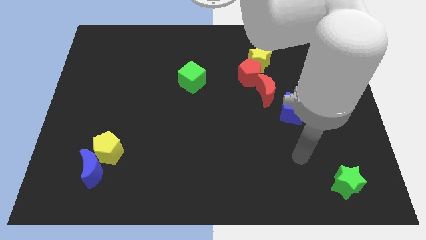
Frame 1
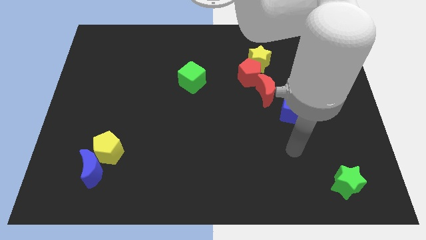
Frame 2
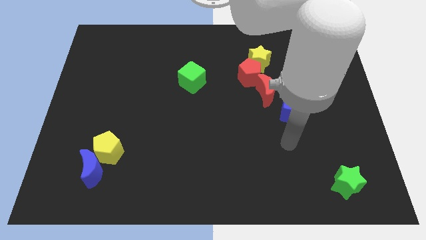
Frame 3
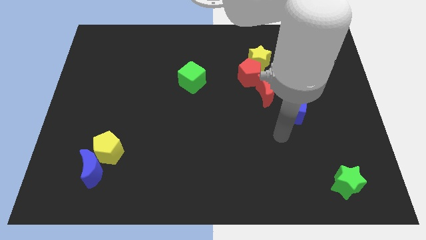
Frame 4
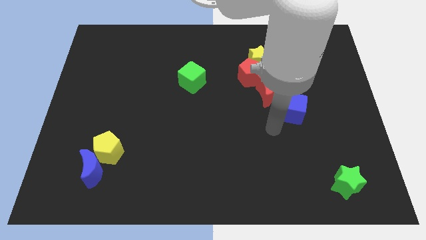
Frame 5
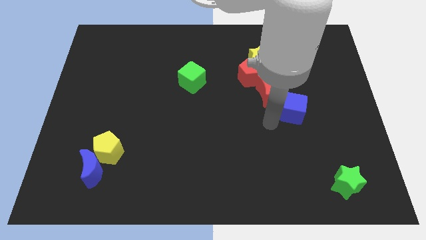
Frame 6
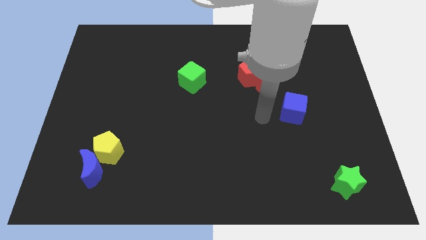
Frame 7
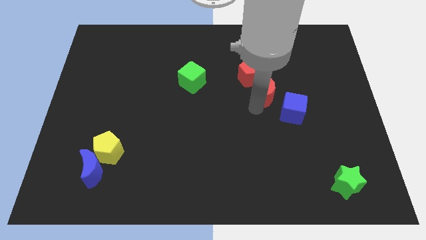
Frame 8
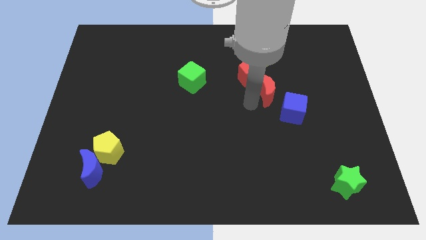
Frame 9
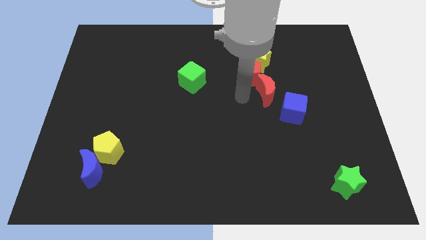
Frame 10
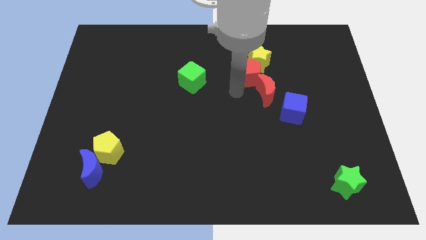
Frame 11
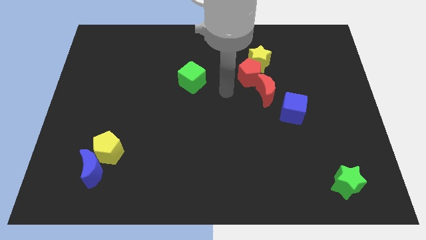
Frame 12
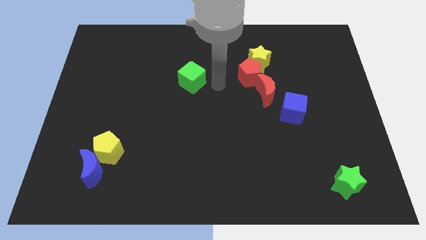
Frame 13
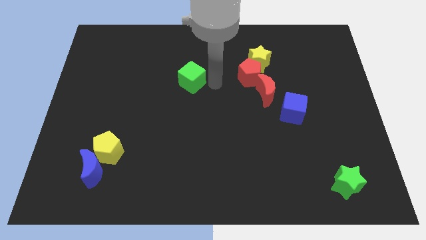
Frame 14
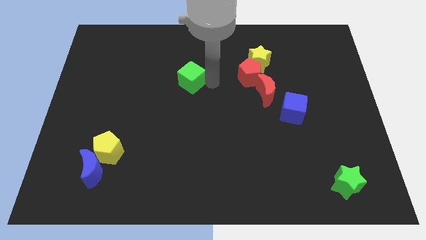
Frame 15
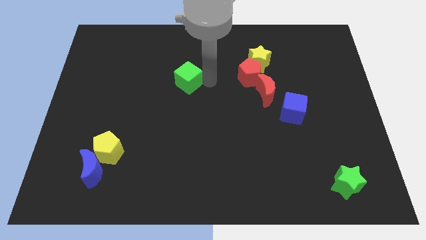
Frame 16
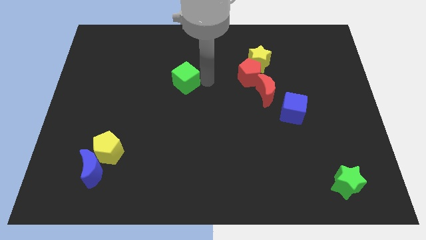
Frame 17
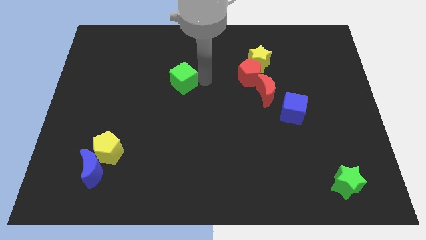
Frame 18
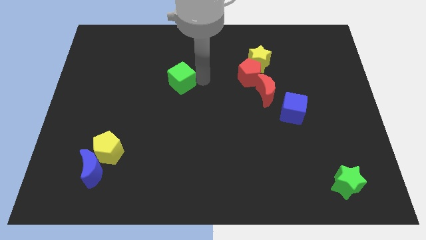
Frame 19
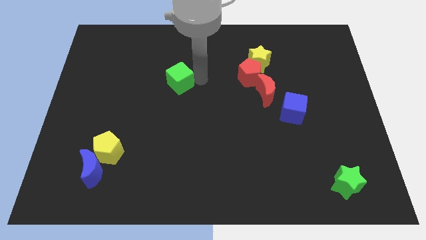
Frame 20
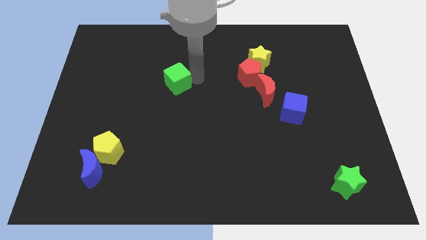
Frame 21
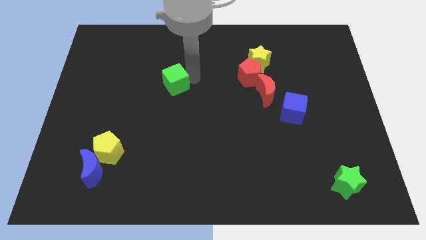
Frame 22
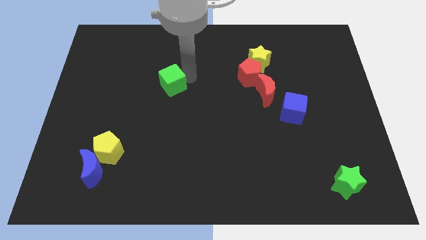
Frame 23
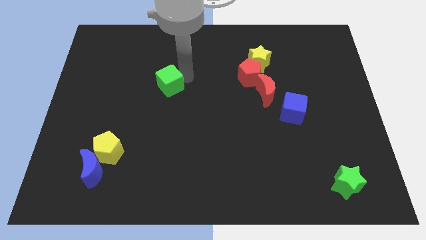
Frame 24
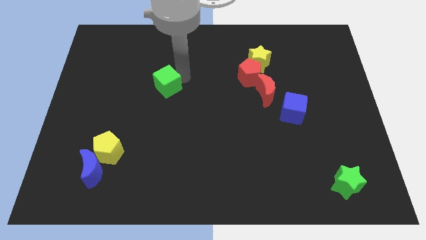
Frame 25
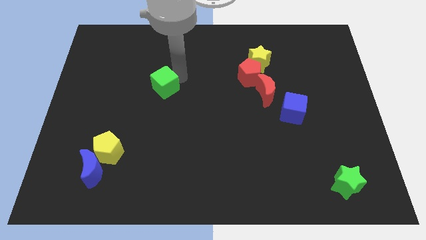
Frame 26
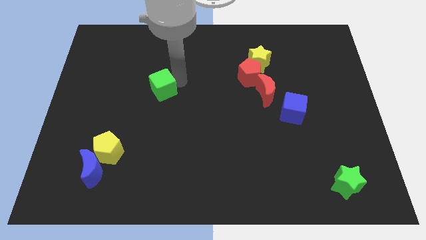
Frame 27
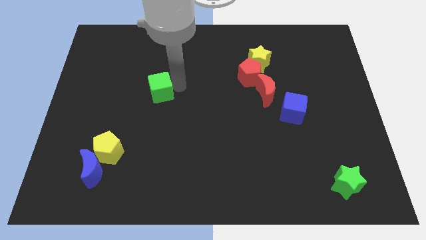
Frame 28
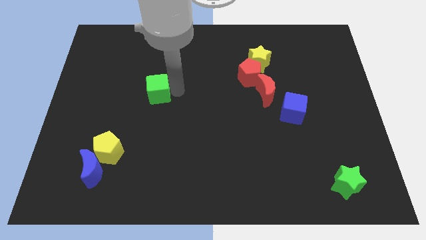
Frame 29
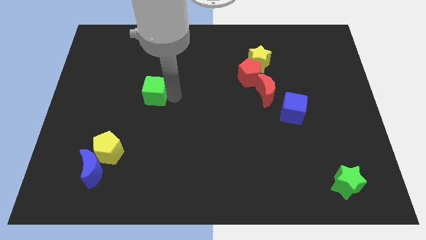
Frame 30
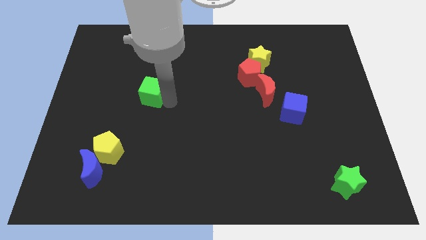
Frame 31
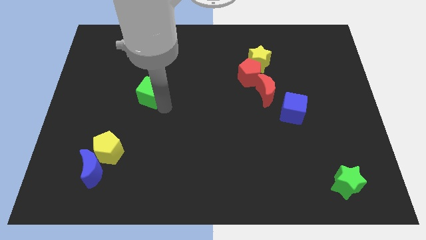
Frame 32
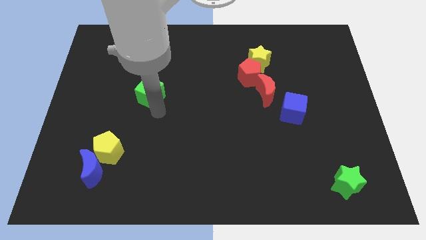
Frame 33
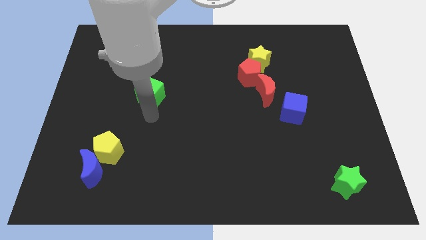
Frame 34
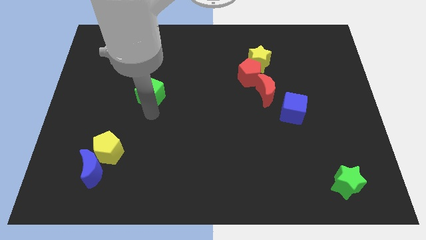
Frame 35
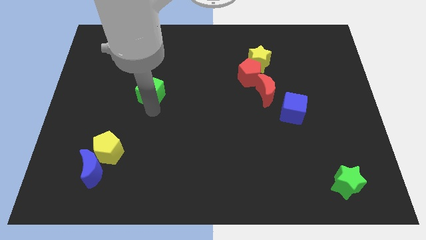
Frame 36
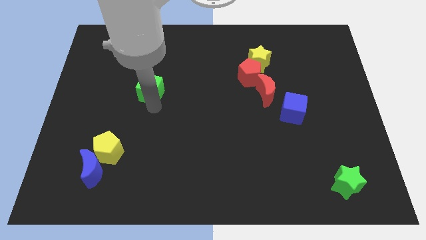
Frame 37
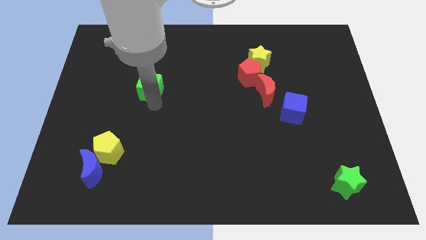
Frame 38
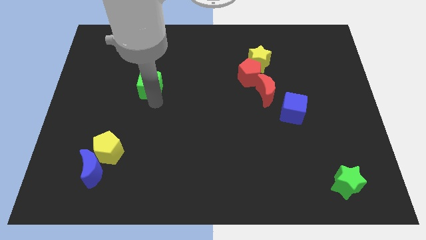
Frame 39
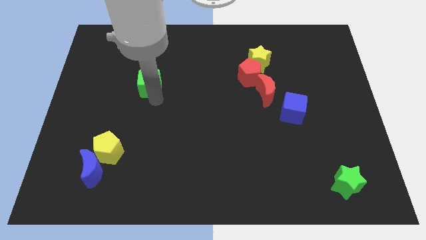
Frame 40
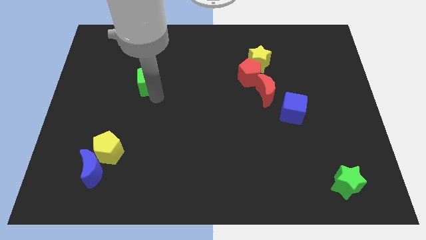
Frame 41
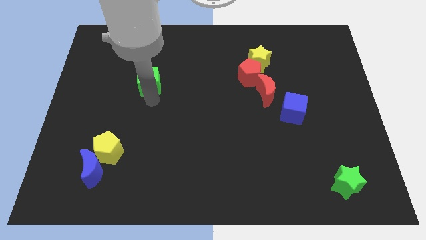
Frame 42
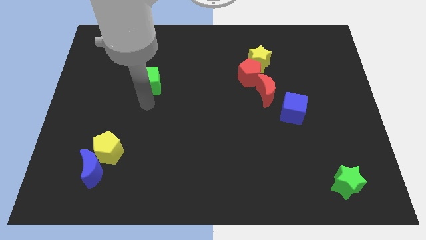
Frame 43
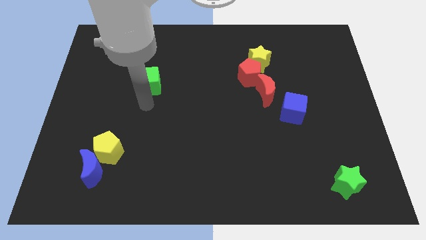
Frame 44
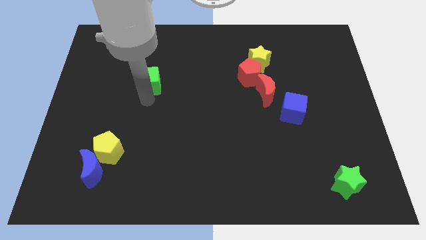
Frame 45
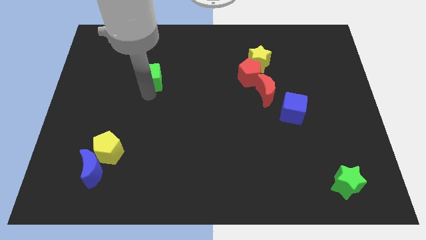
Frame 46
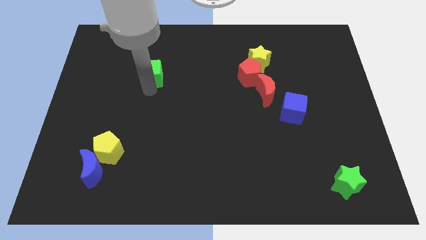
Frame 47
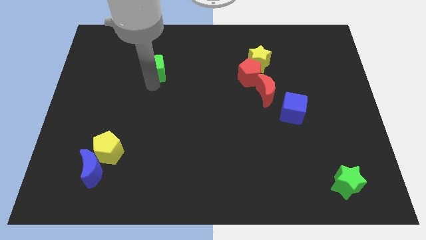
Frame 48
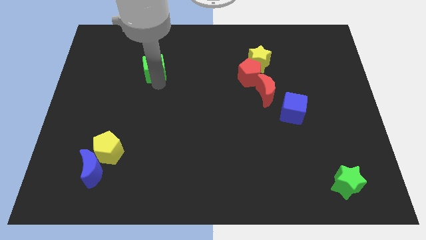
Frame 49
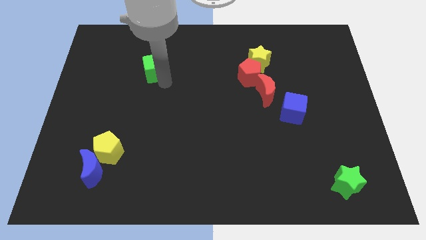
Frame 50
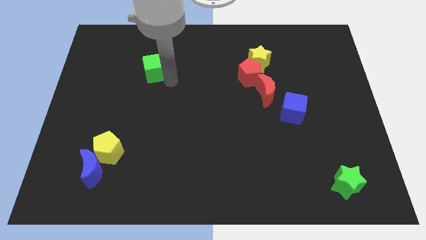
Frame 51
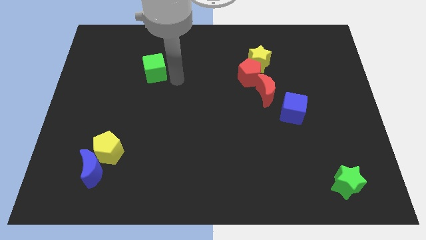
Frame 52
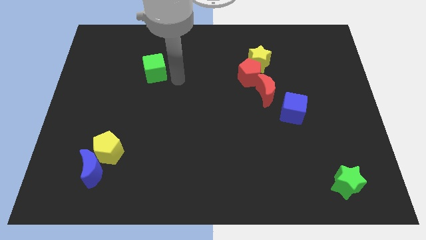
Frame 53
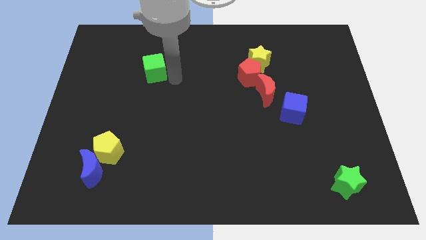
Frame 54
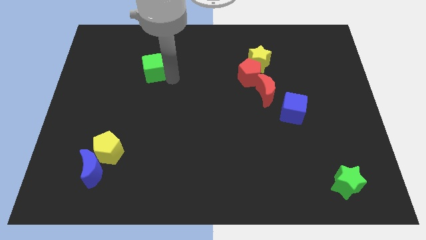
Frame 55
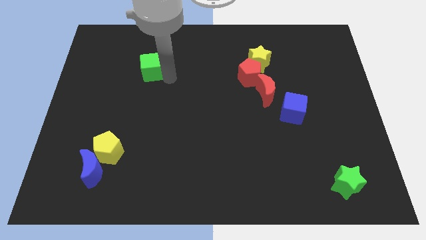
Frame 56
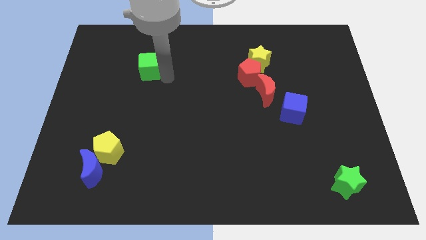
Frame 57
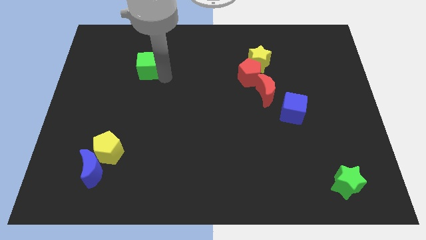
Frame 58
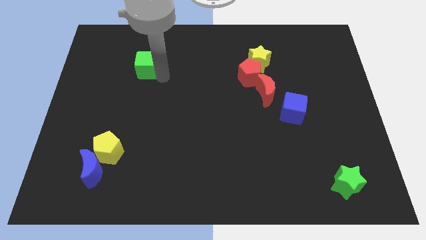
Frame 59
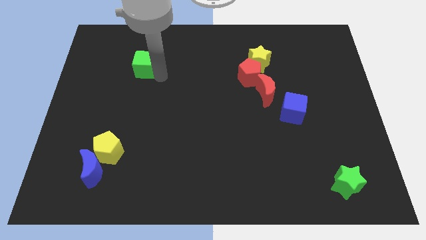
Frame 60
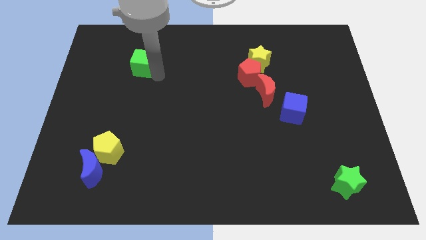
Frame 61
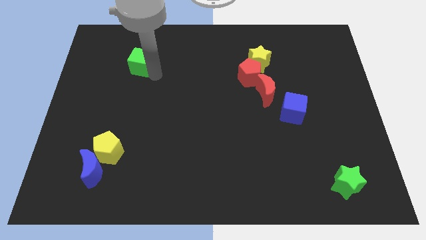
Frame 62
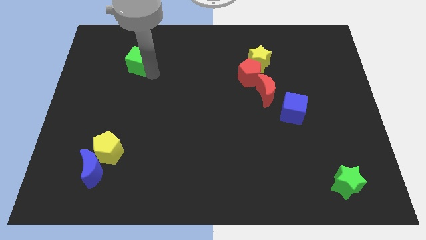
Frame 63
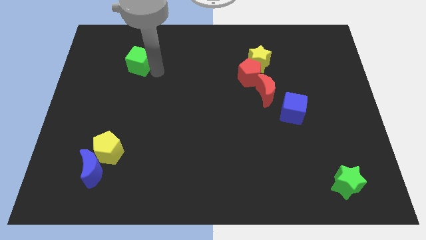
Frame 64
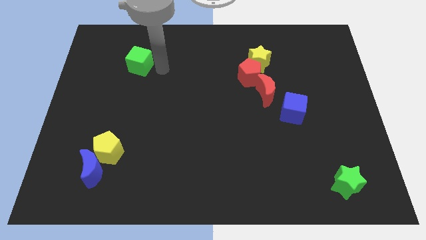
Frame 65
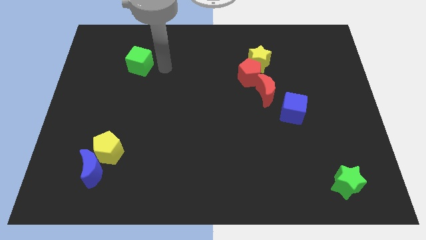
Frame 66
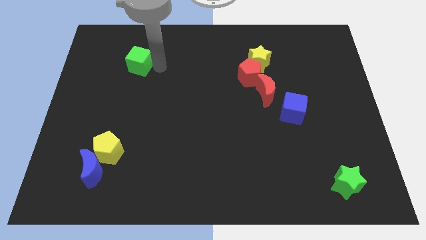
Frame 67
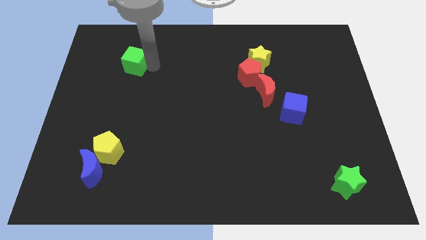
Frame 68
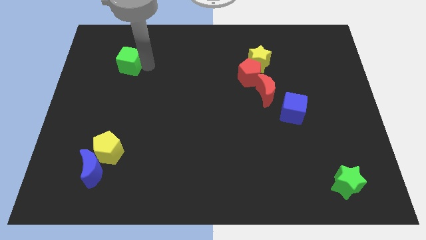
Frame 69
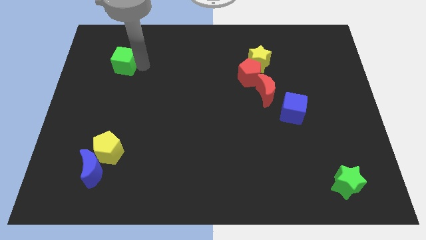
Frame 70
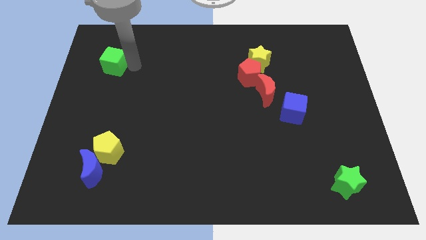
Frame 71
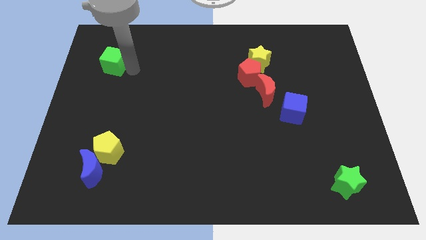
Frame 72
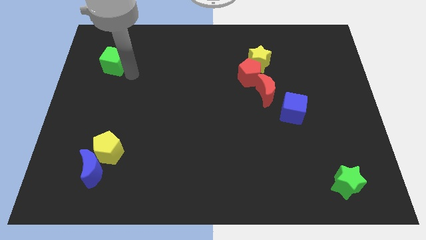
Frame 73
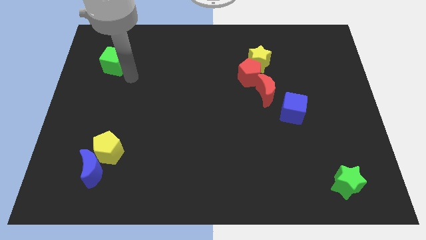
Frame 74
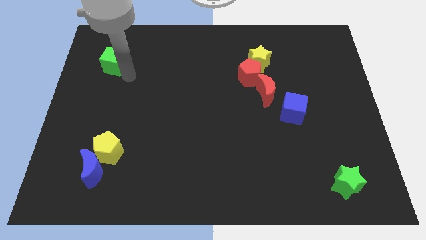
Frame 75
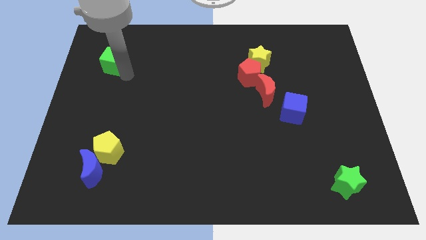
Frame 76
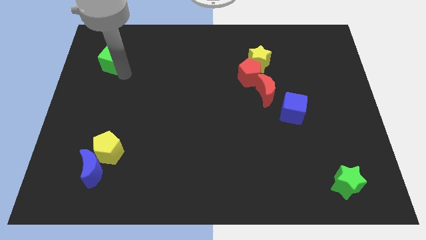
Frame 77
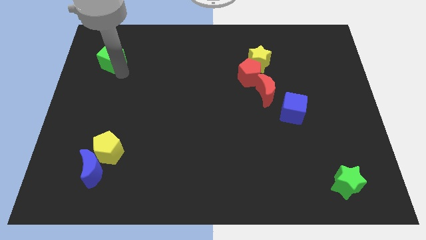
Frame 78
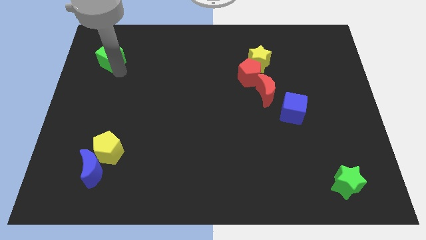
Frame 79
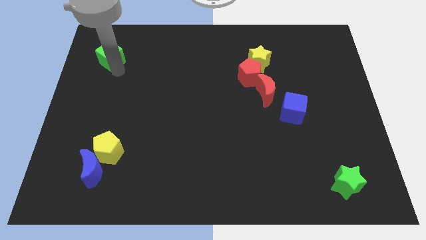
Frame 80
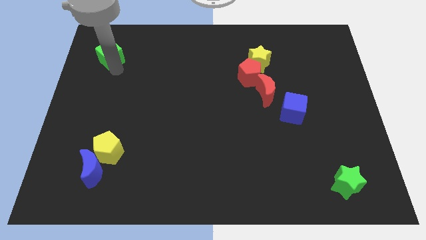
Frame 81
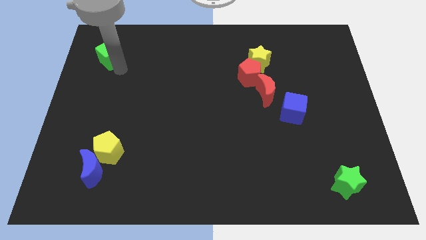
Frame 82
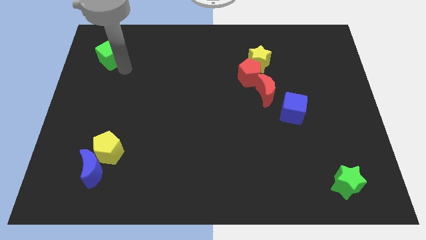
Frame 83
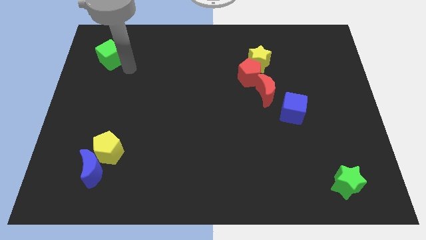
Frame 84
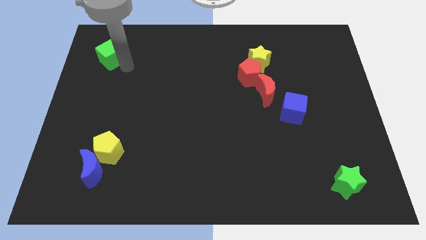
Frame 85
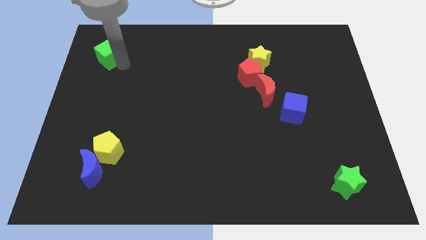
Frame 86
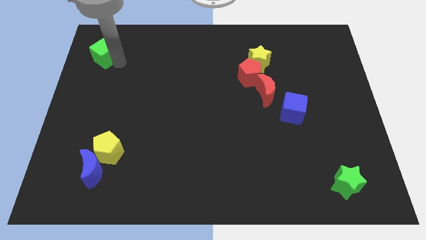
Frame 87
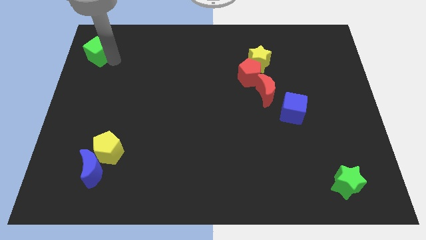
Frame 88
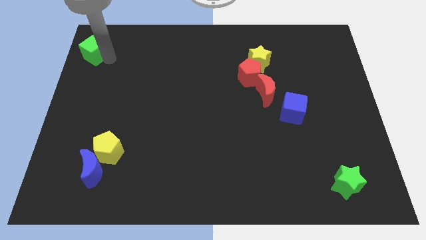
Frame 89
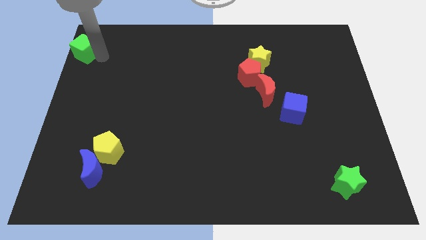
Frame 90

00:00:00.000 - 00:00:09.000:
put the green cube to the top left of the board
